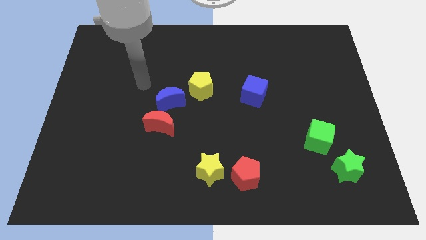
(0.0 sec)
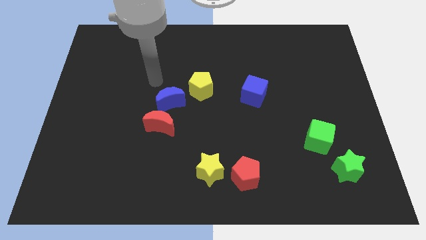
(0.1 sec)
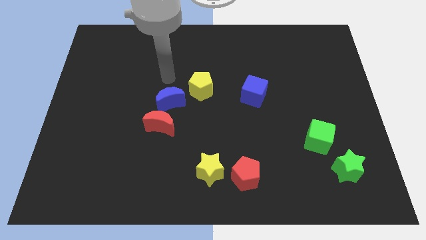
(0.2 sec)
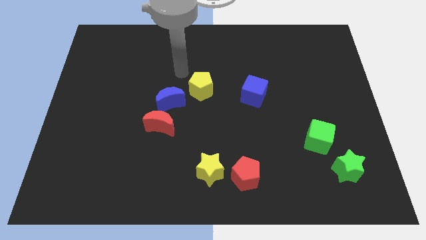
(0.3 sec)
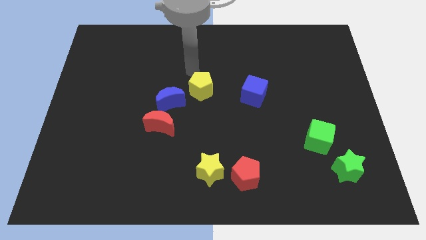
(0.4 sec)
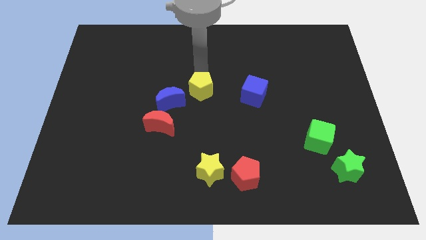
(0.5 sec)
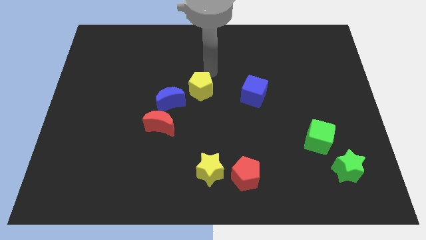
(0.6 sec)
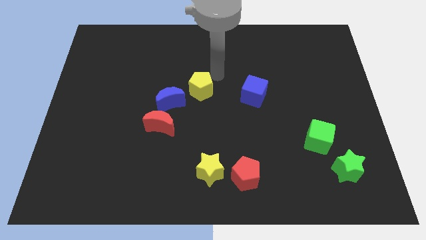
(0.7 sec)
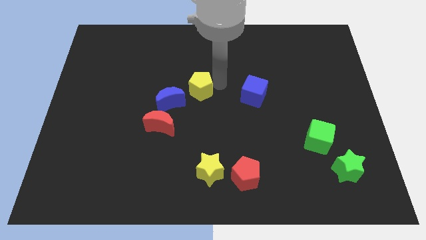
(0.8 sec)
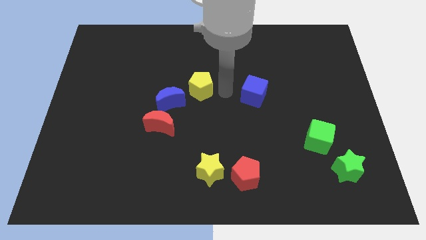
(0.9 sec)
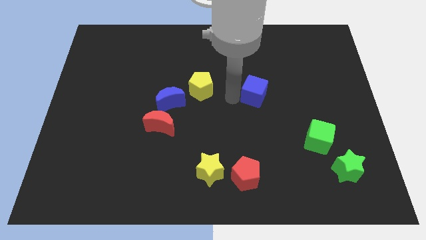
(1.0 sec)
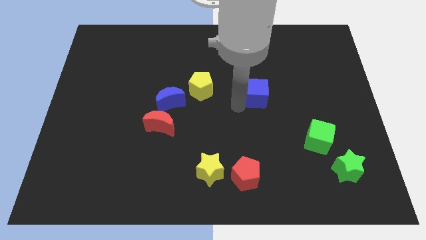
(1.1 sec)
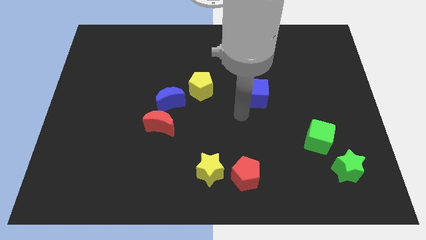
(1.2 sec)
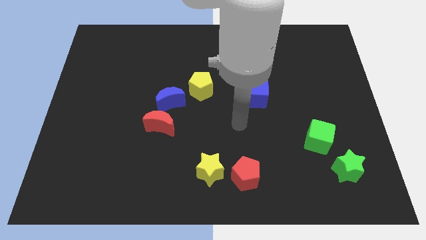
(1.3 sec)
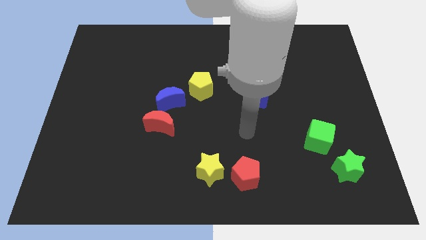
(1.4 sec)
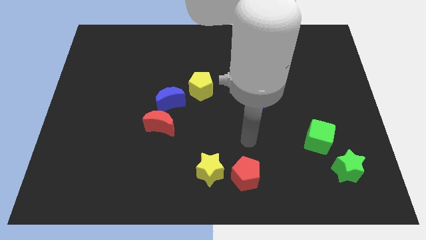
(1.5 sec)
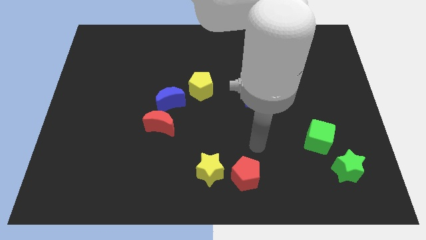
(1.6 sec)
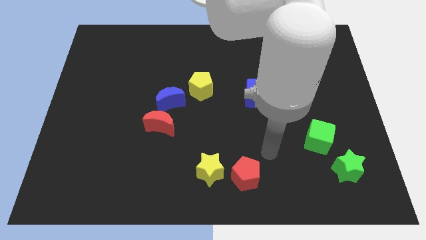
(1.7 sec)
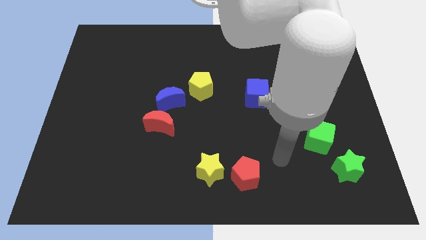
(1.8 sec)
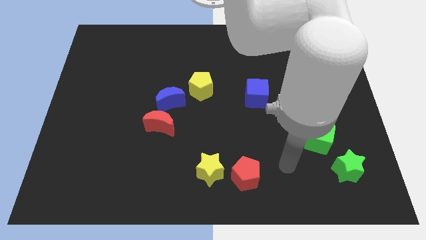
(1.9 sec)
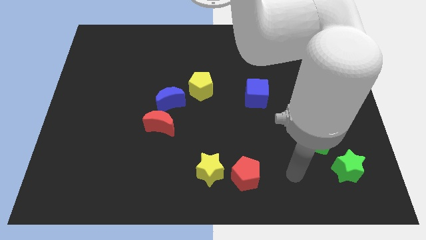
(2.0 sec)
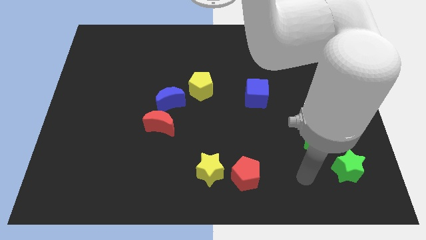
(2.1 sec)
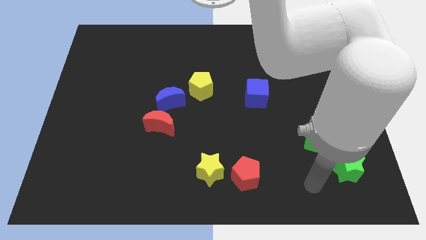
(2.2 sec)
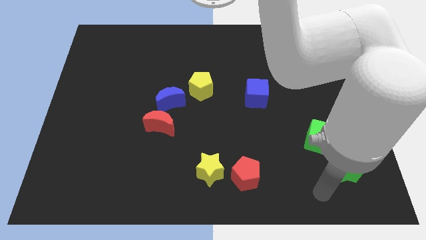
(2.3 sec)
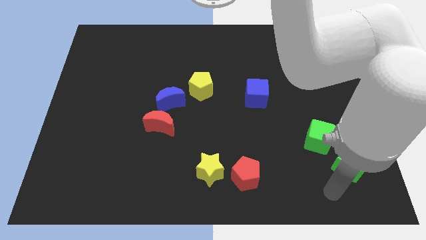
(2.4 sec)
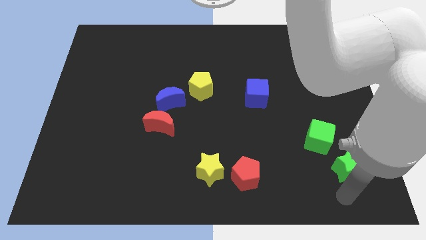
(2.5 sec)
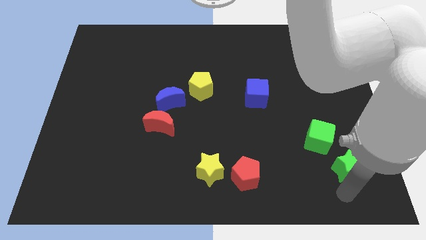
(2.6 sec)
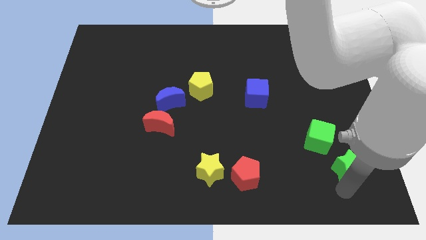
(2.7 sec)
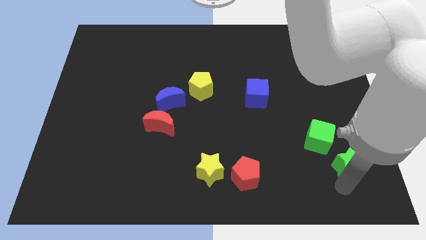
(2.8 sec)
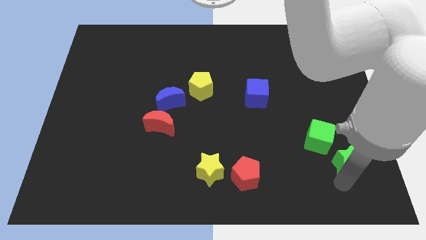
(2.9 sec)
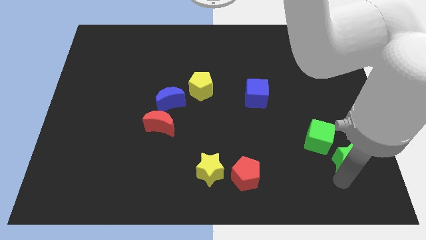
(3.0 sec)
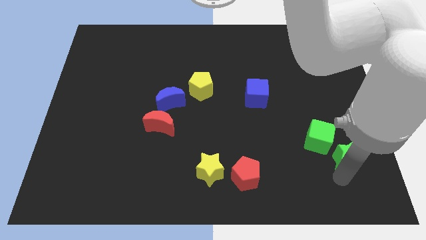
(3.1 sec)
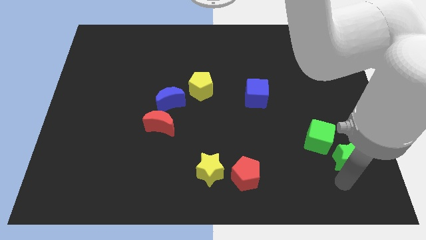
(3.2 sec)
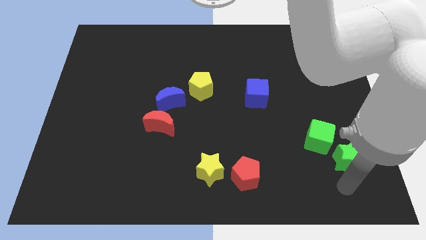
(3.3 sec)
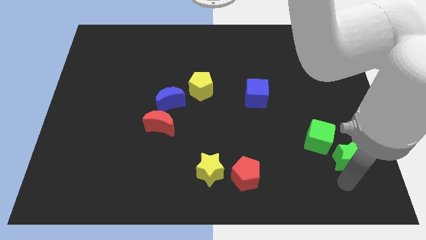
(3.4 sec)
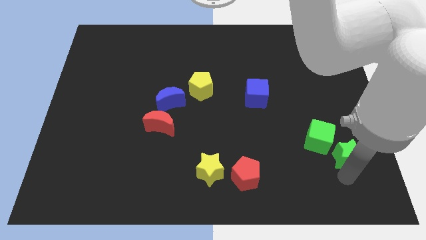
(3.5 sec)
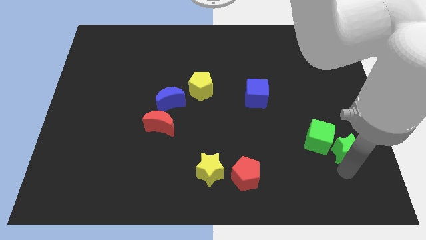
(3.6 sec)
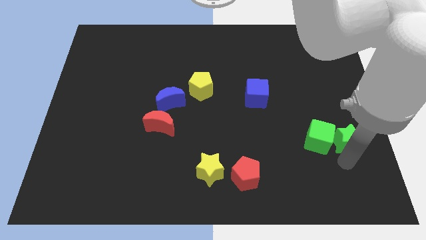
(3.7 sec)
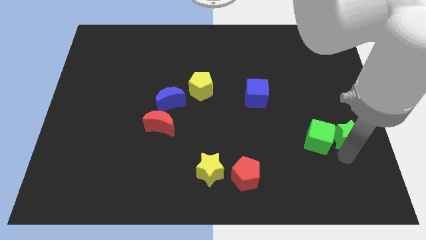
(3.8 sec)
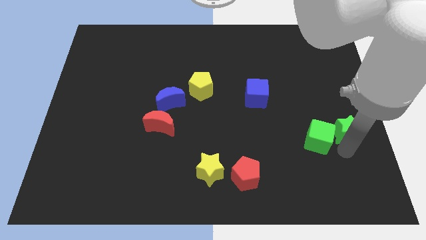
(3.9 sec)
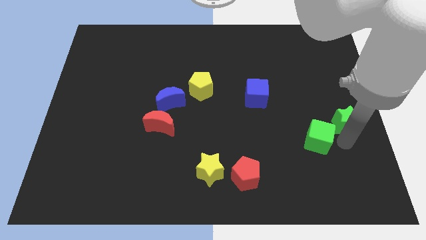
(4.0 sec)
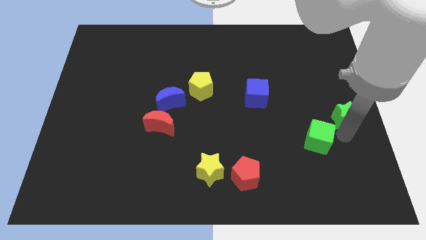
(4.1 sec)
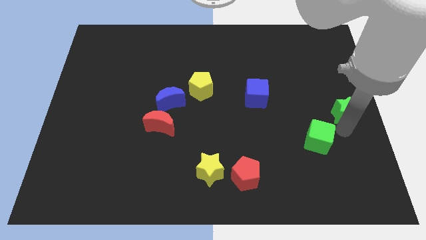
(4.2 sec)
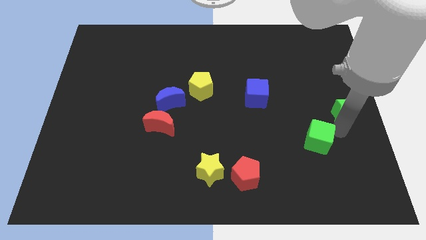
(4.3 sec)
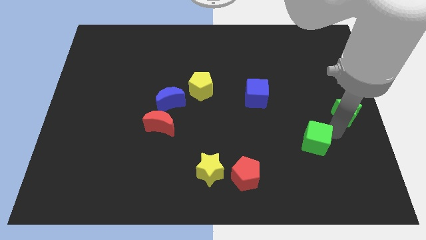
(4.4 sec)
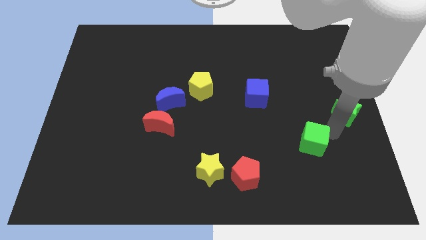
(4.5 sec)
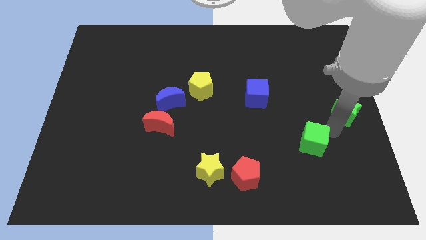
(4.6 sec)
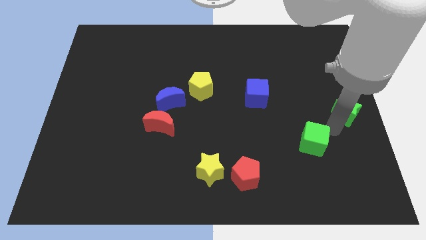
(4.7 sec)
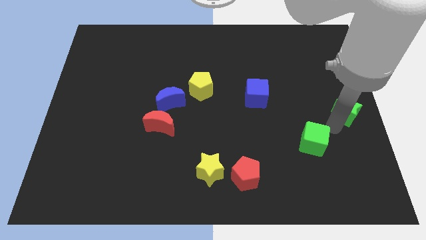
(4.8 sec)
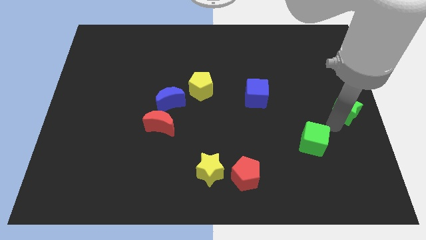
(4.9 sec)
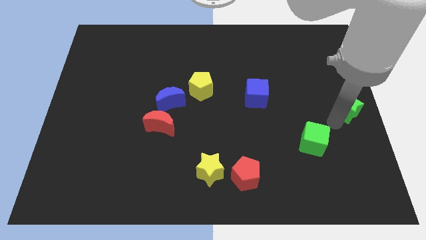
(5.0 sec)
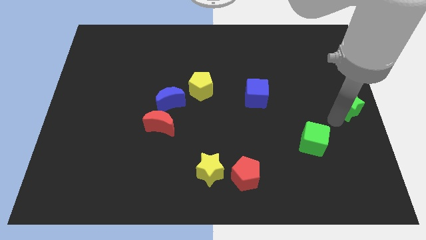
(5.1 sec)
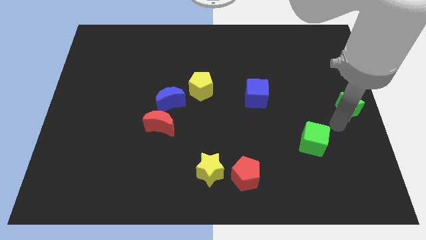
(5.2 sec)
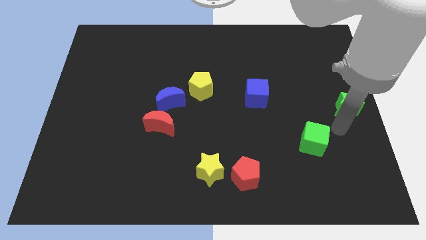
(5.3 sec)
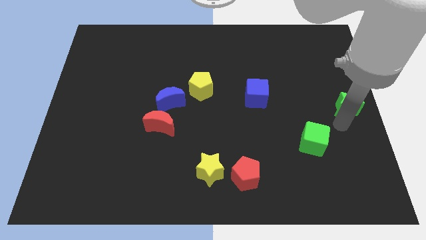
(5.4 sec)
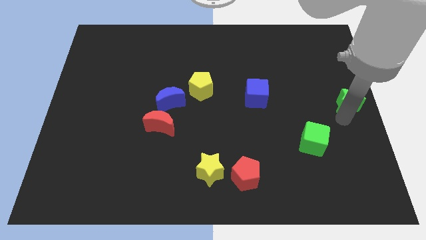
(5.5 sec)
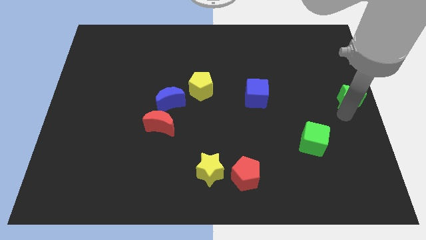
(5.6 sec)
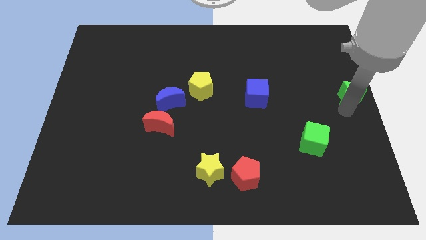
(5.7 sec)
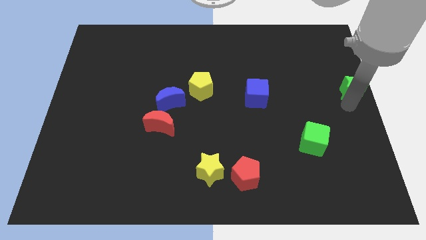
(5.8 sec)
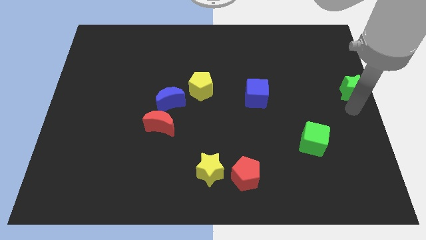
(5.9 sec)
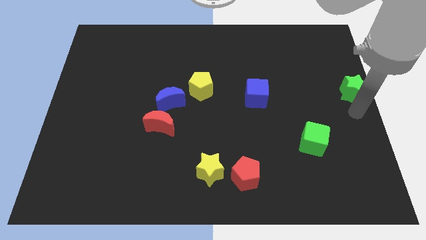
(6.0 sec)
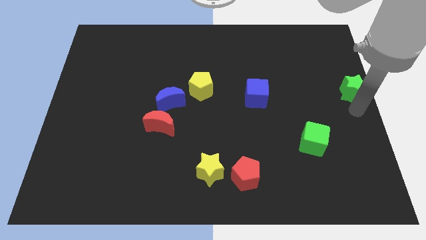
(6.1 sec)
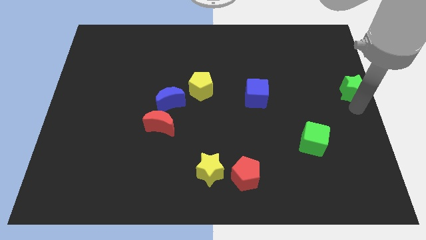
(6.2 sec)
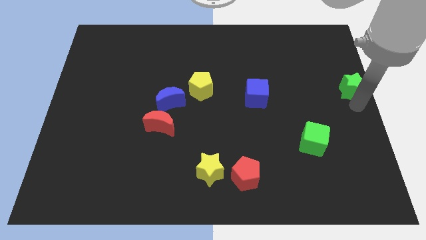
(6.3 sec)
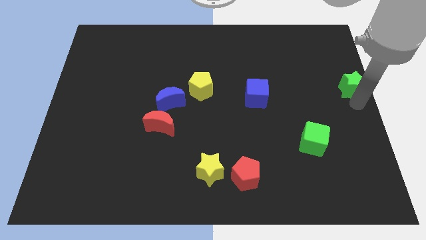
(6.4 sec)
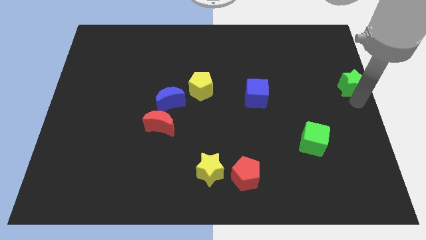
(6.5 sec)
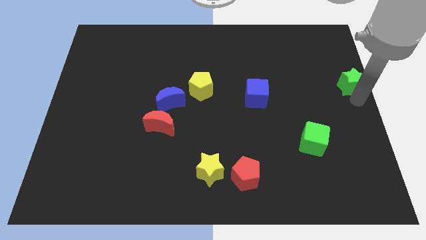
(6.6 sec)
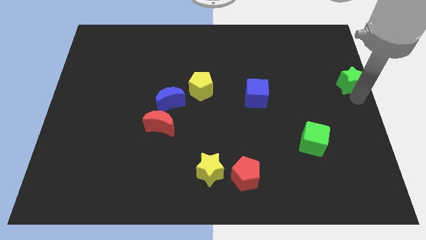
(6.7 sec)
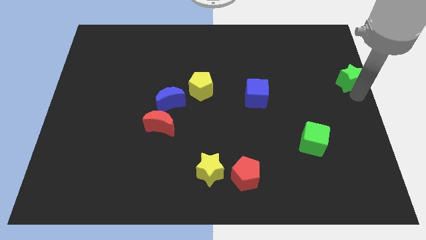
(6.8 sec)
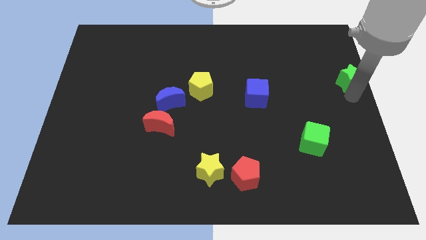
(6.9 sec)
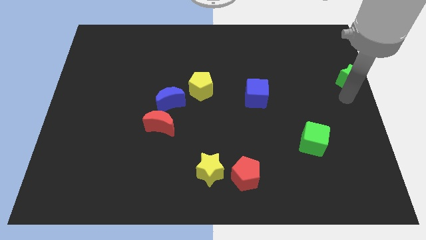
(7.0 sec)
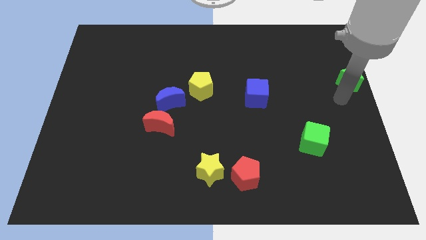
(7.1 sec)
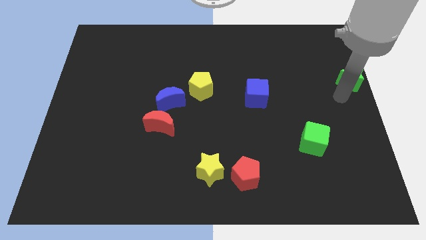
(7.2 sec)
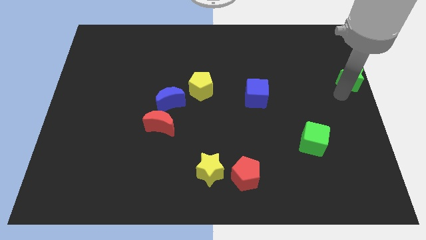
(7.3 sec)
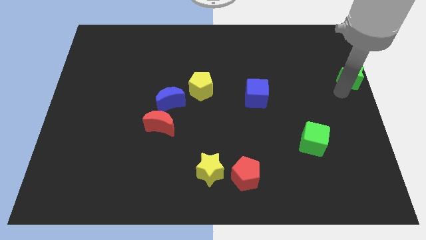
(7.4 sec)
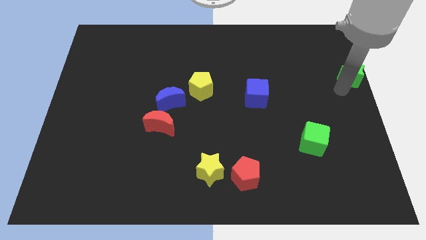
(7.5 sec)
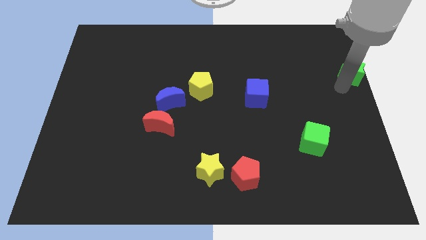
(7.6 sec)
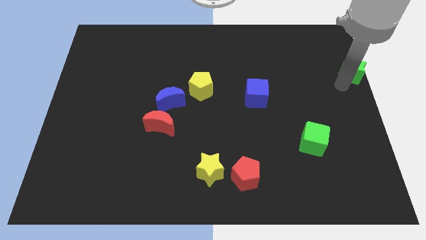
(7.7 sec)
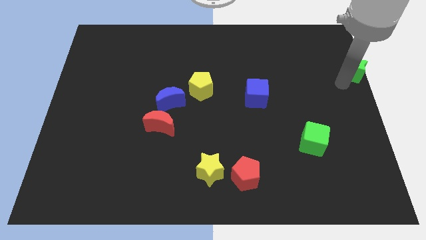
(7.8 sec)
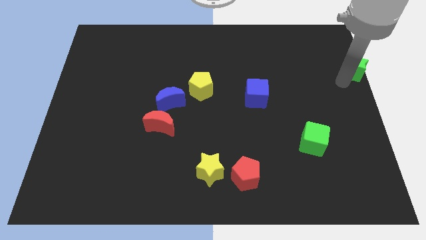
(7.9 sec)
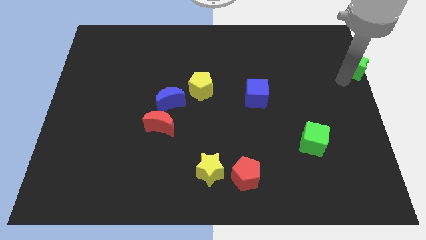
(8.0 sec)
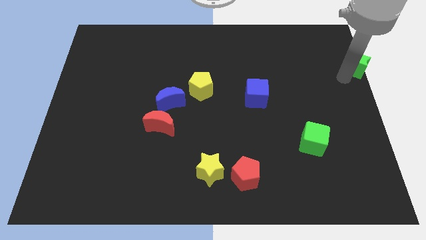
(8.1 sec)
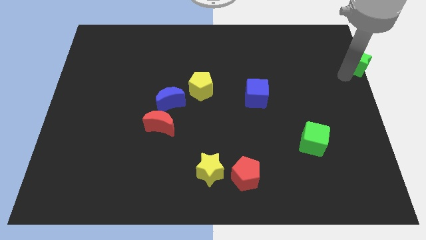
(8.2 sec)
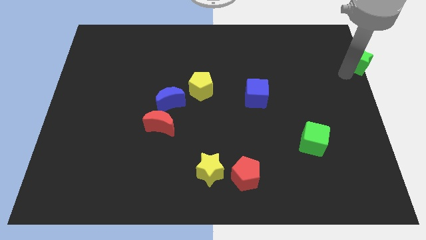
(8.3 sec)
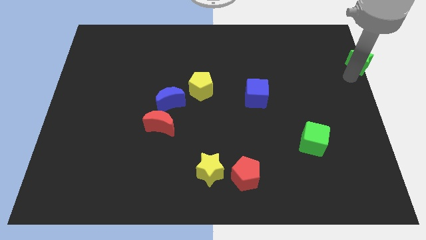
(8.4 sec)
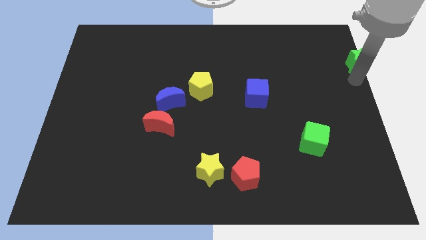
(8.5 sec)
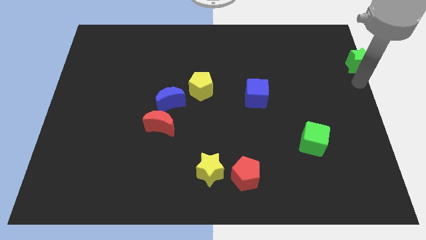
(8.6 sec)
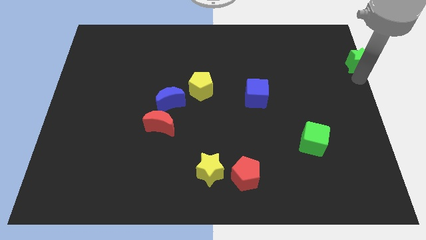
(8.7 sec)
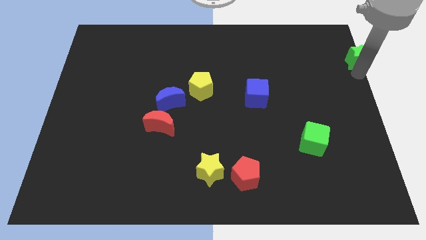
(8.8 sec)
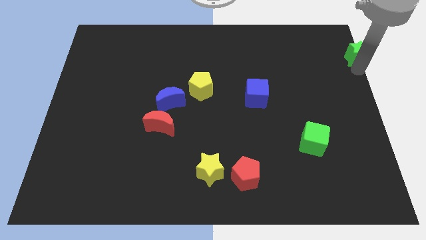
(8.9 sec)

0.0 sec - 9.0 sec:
put the green star to the upper right corner
